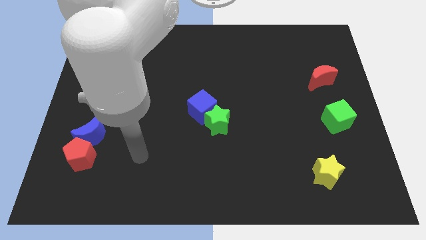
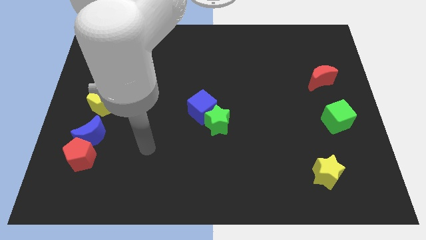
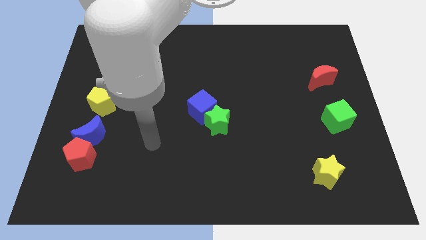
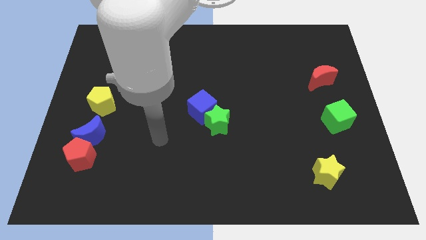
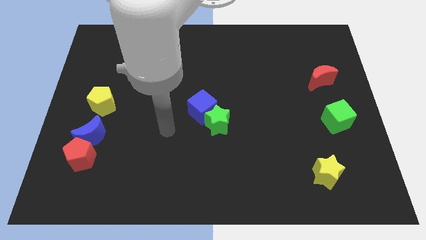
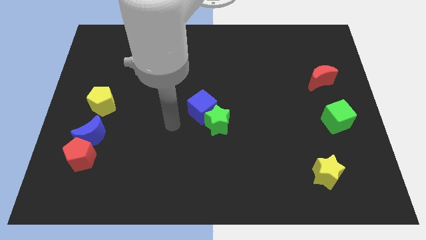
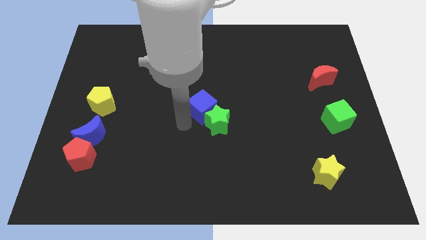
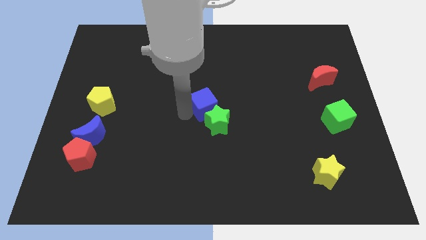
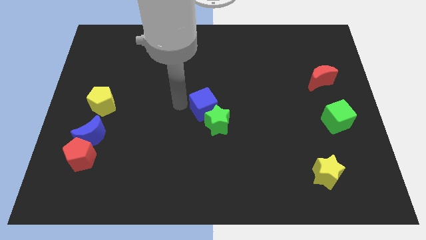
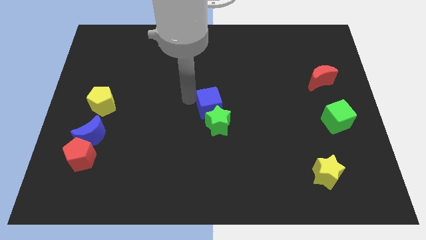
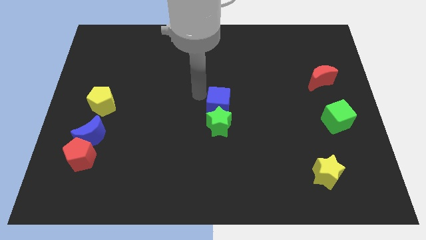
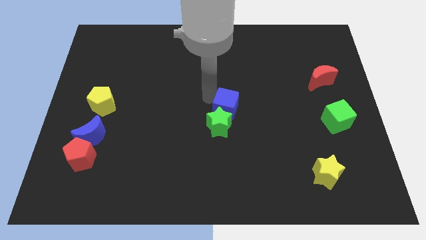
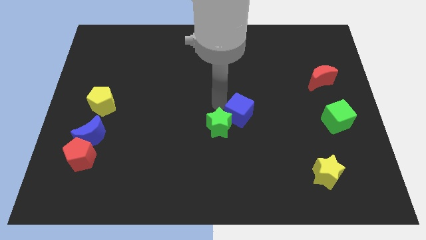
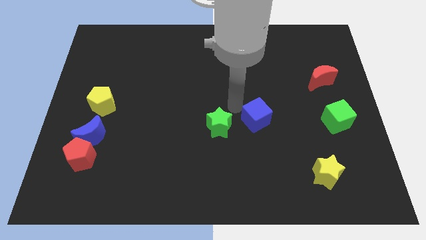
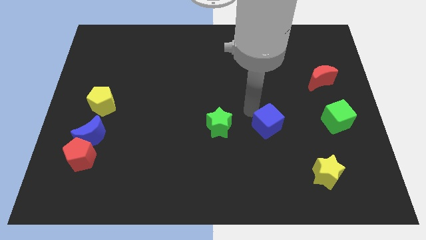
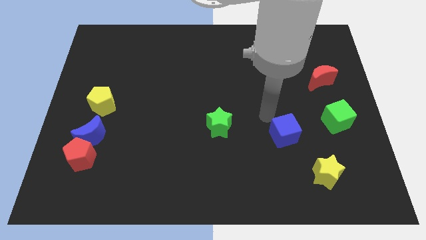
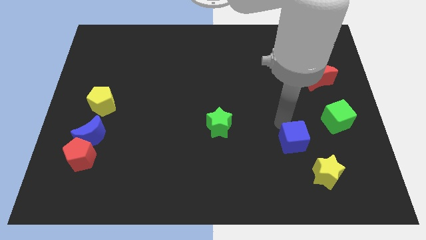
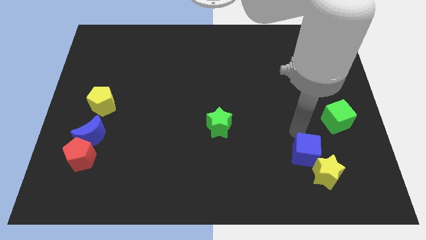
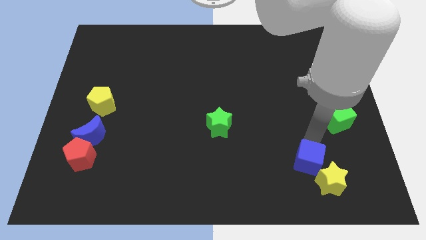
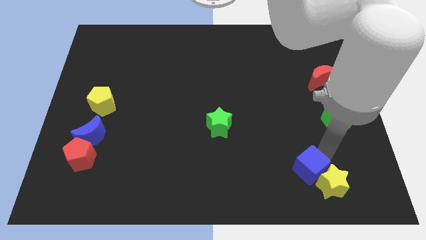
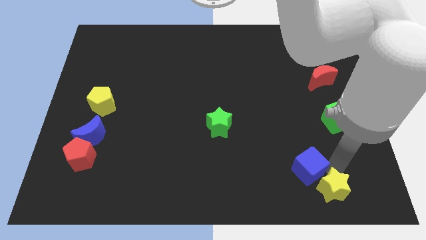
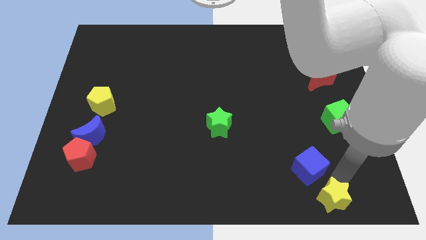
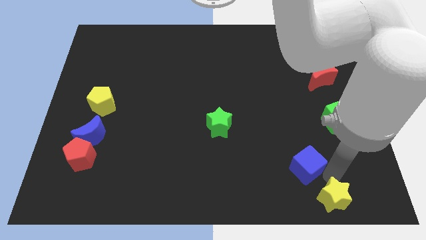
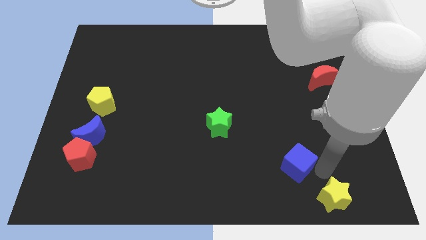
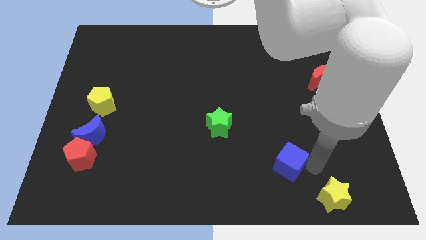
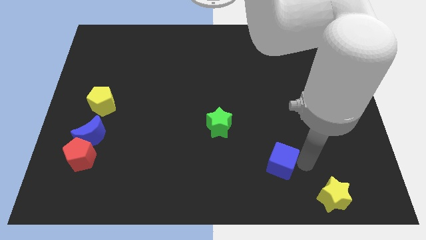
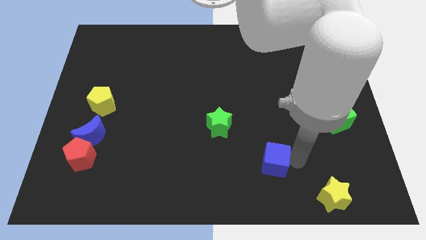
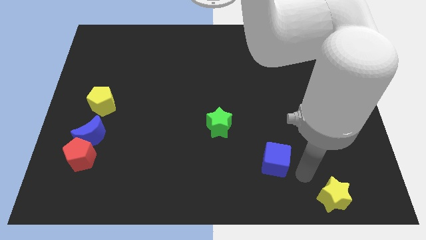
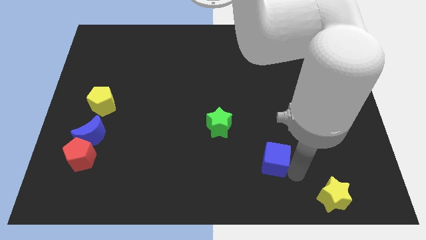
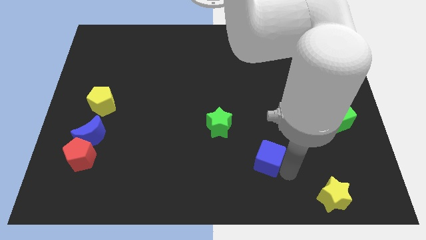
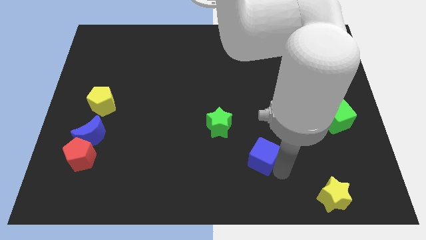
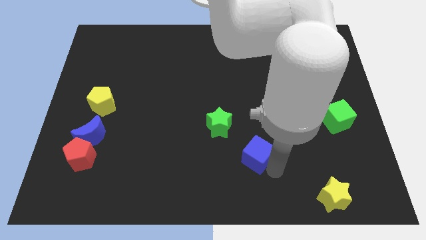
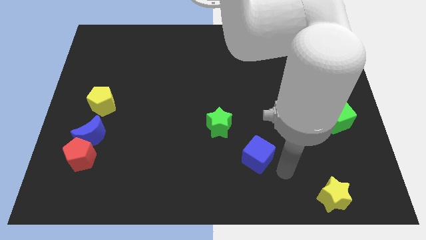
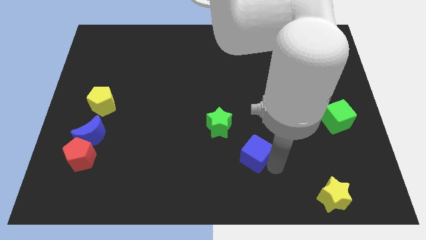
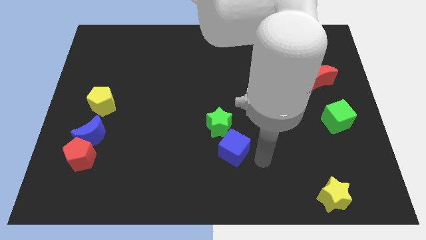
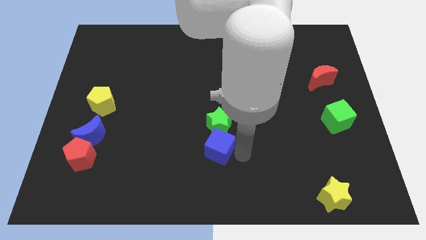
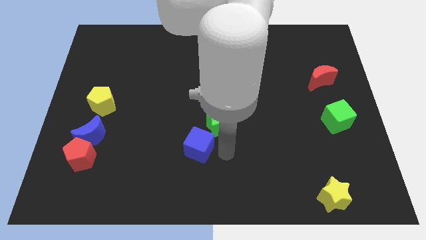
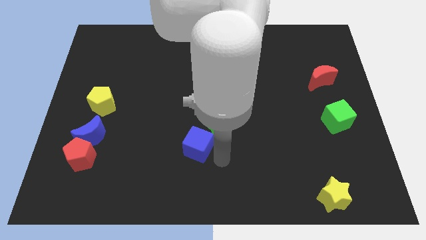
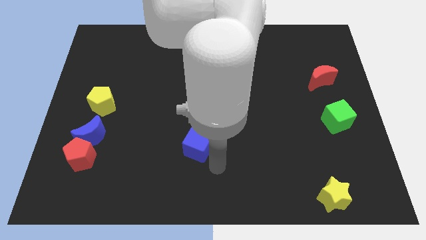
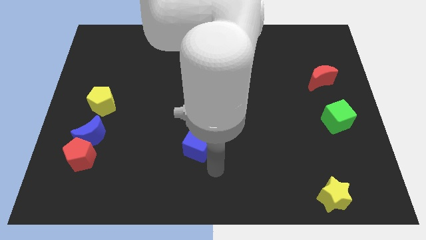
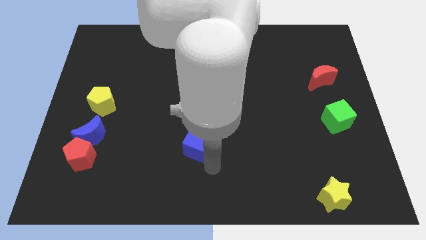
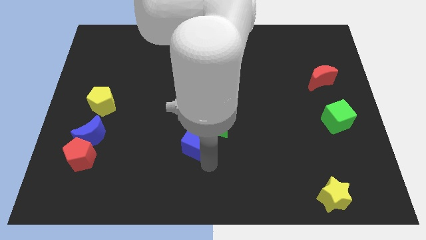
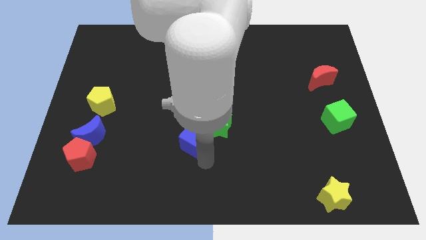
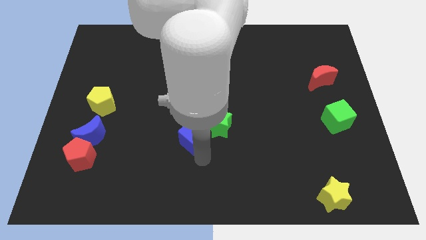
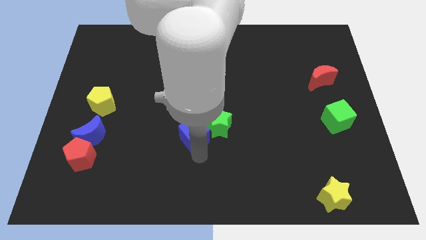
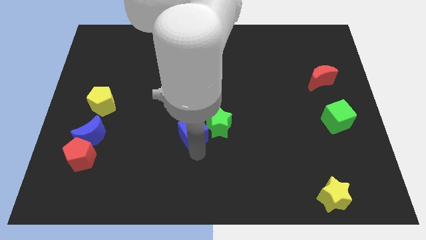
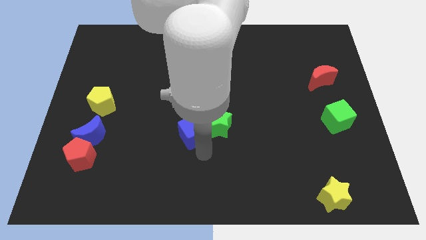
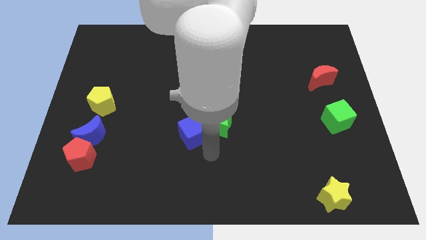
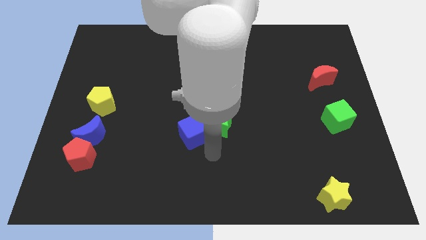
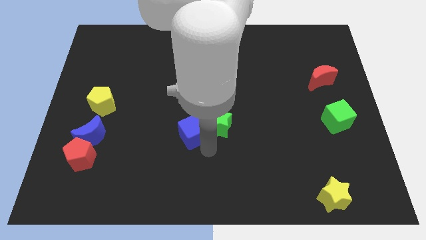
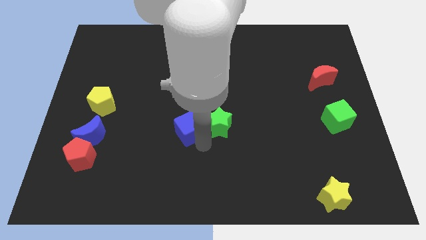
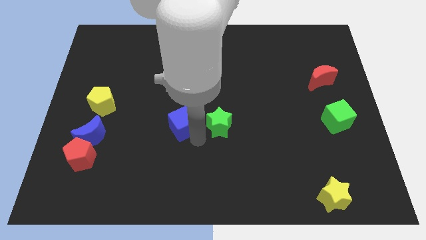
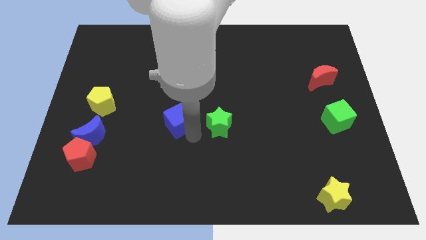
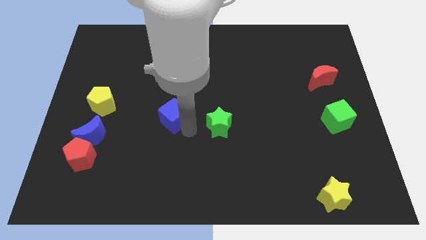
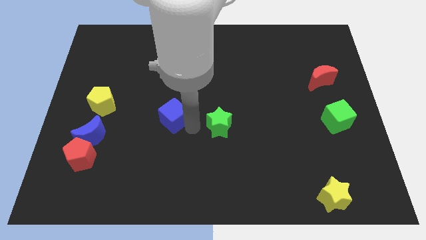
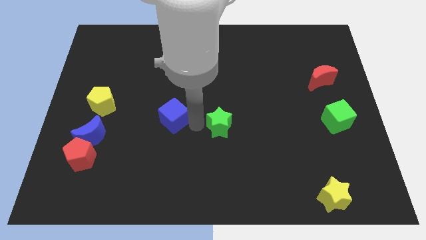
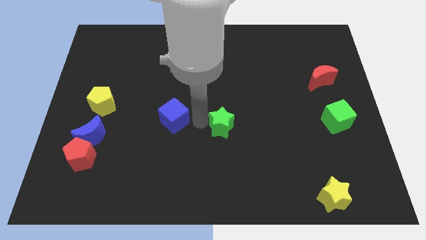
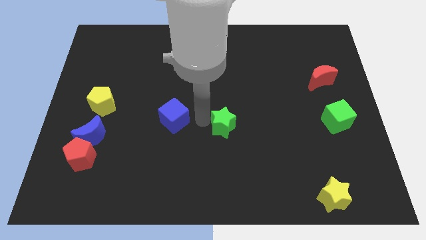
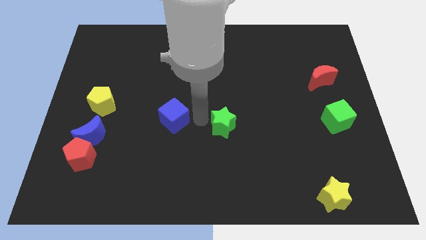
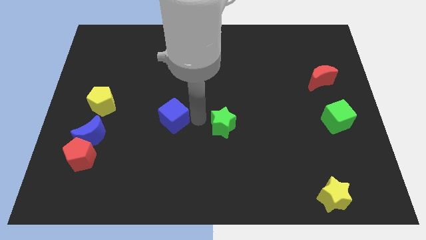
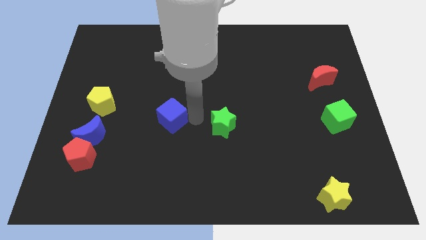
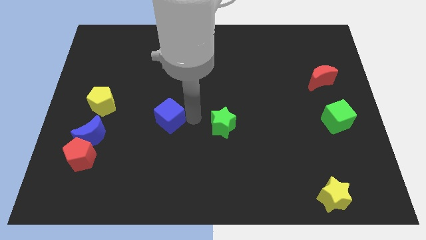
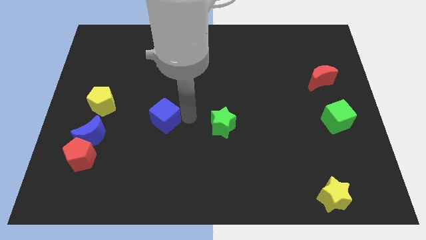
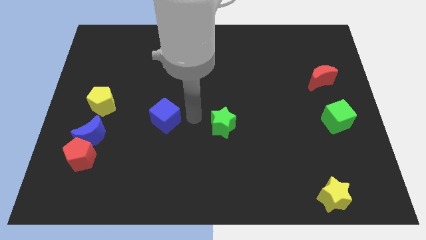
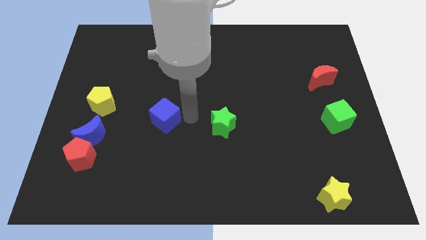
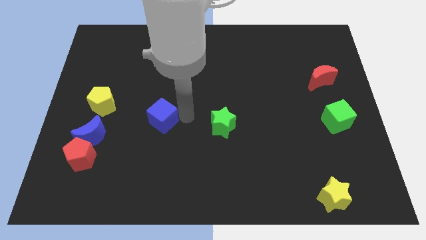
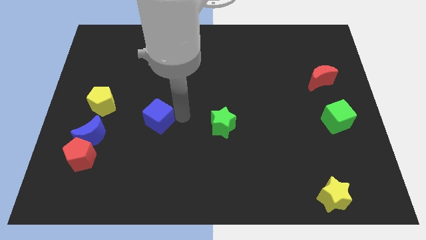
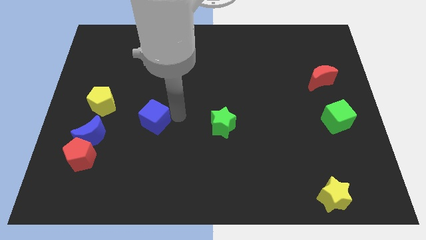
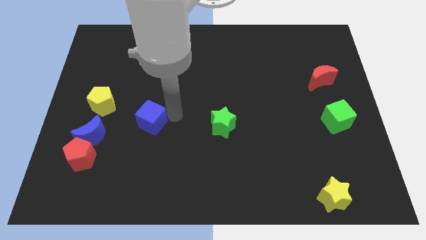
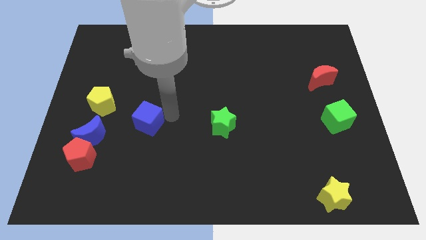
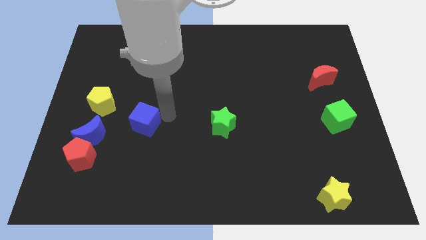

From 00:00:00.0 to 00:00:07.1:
push the blue cube diagonally down and to the right of the yellow pentagon

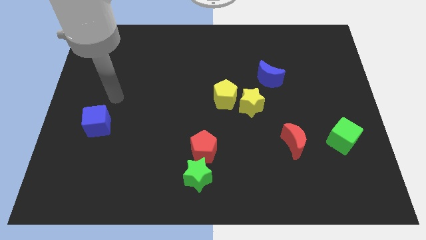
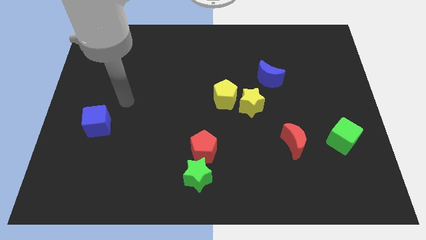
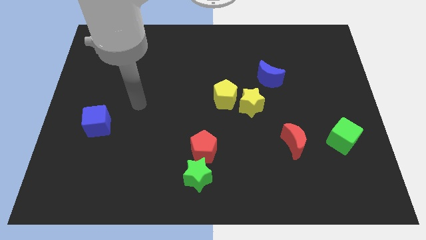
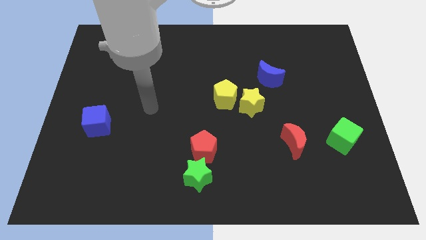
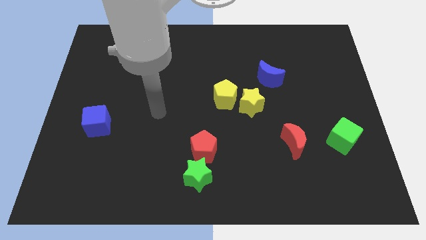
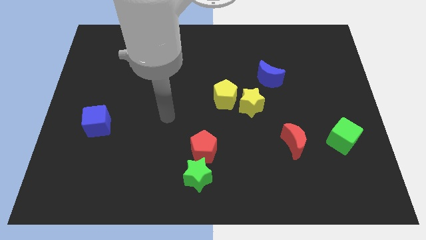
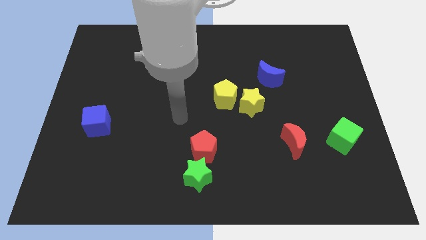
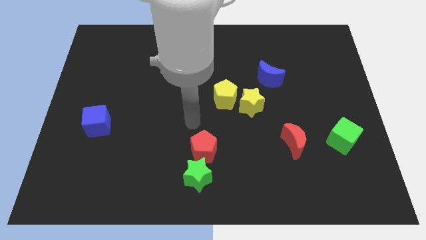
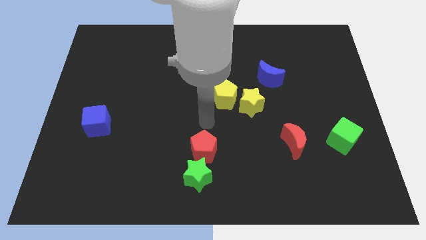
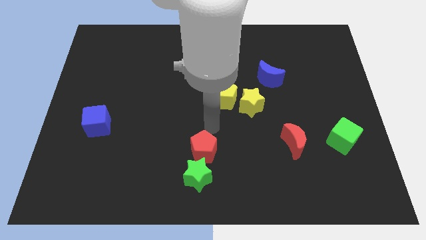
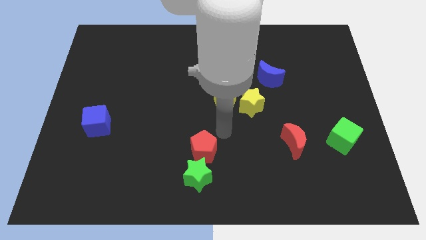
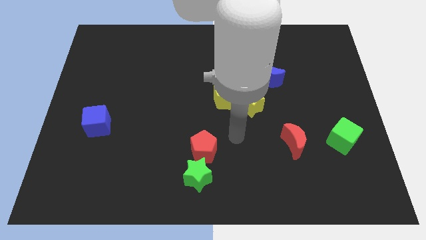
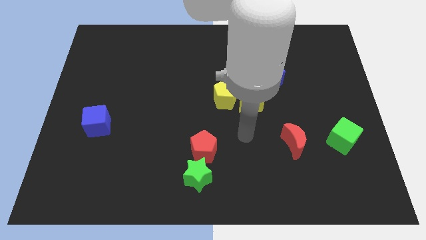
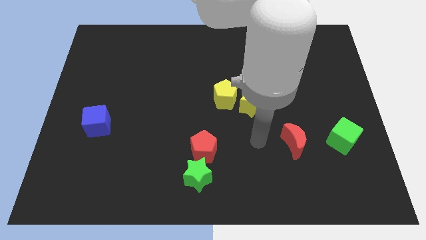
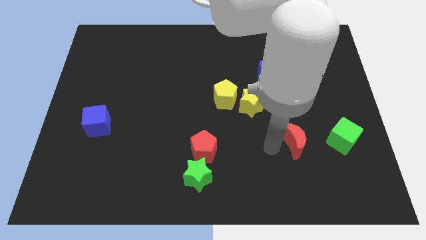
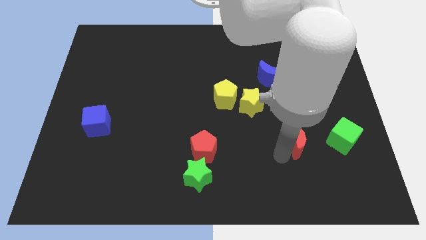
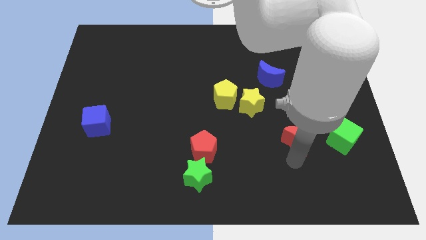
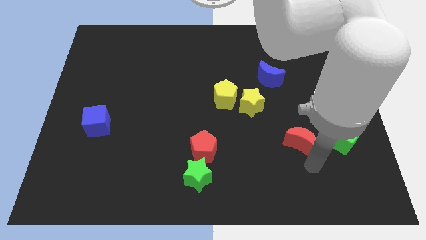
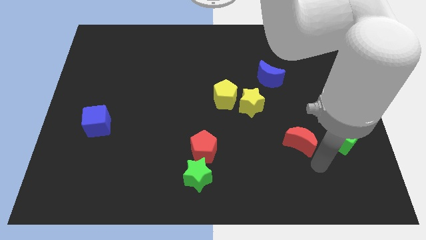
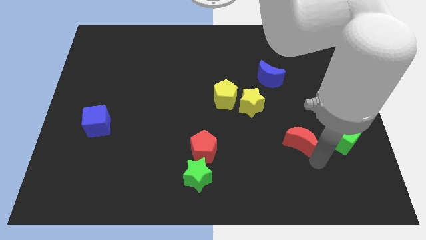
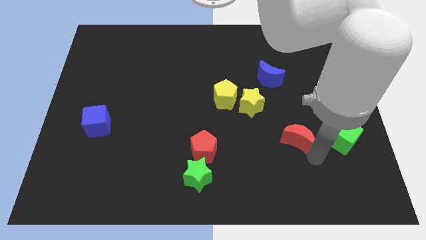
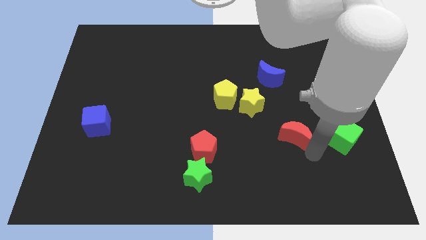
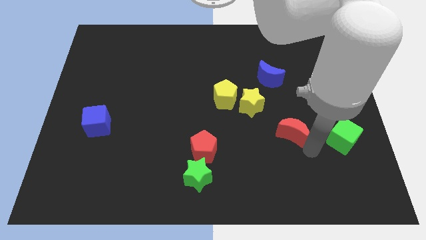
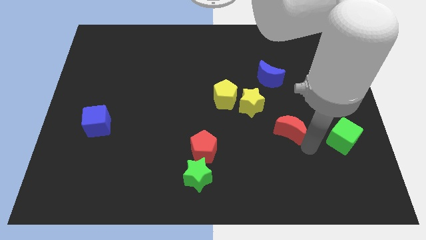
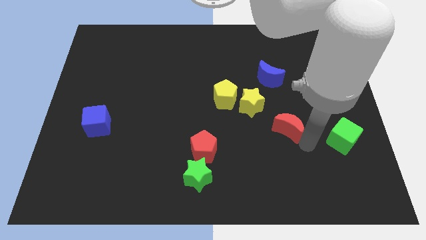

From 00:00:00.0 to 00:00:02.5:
put the red moon below the blue moon
